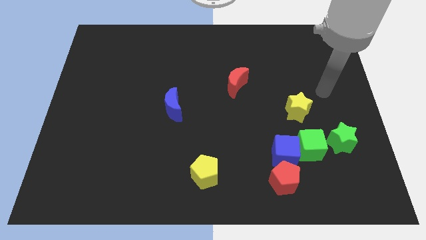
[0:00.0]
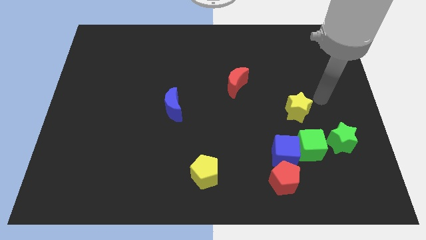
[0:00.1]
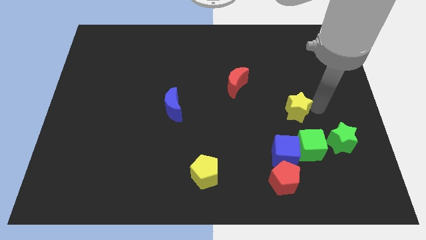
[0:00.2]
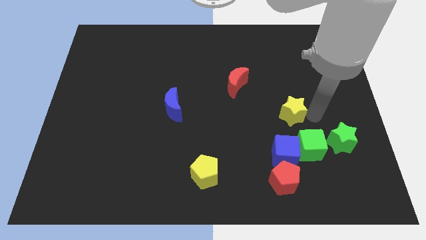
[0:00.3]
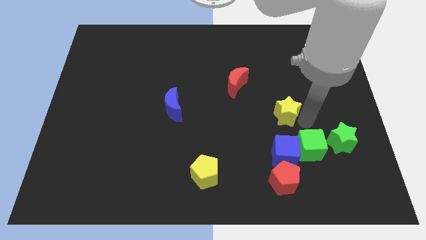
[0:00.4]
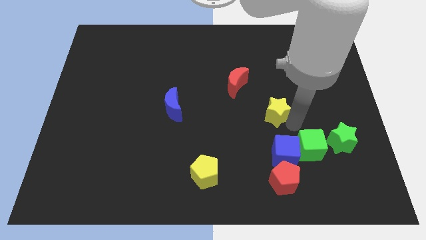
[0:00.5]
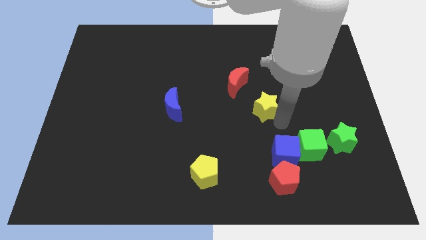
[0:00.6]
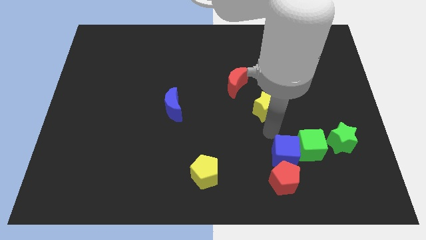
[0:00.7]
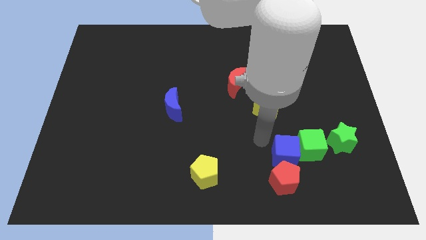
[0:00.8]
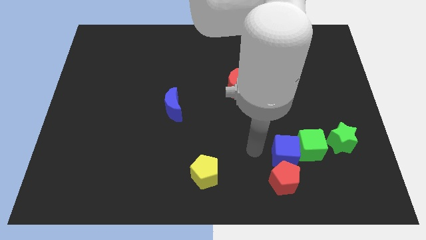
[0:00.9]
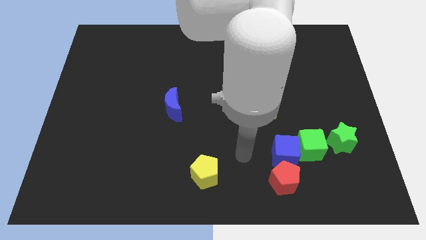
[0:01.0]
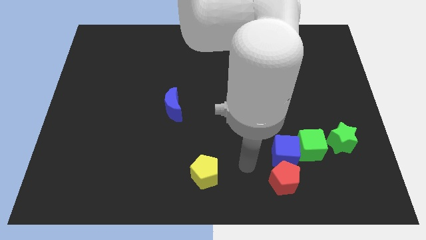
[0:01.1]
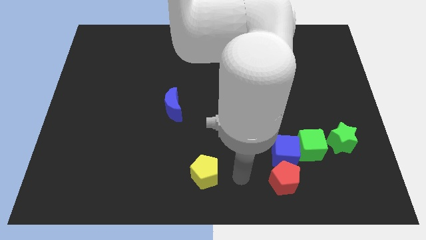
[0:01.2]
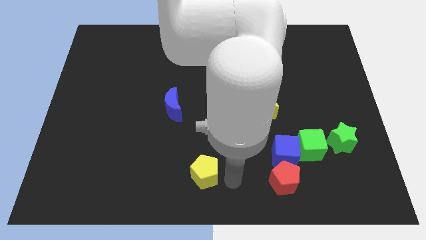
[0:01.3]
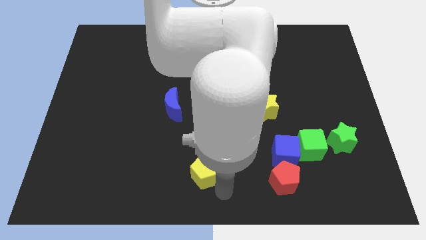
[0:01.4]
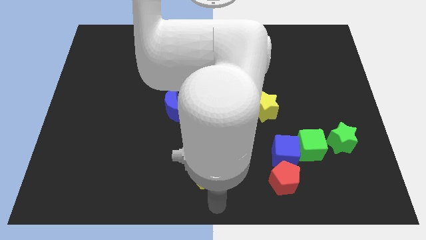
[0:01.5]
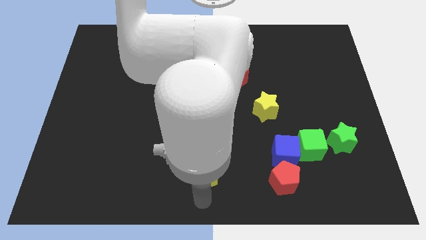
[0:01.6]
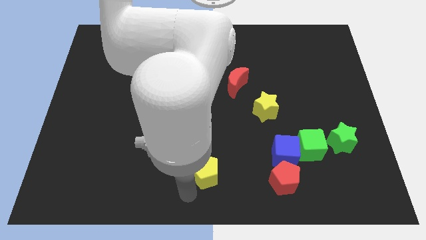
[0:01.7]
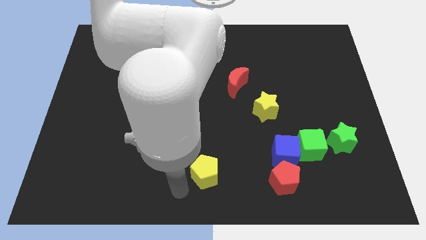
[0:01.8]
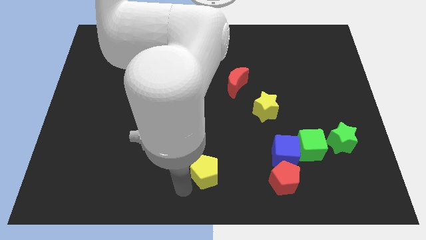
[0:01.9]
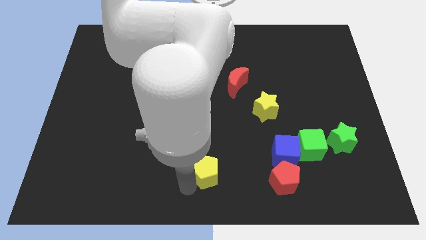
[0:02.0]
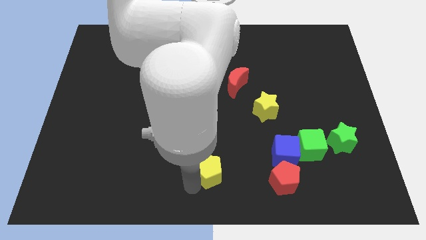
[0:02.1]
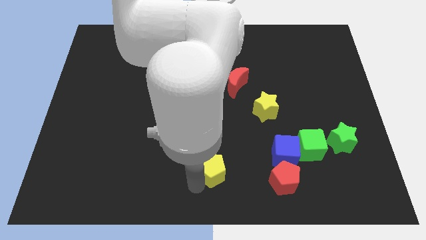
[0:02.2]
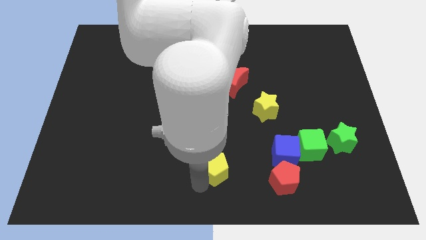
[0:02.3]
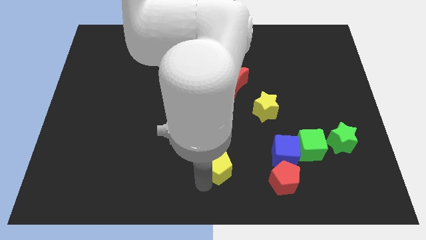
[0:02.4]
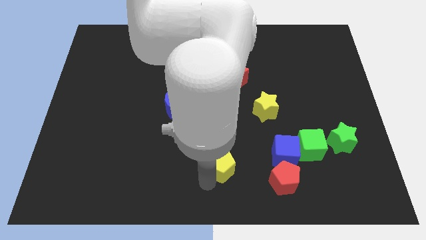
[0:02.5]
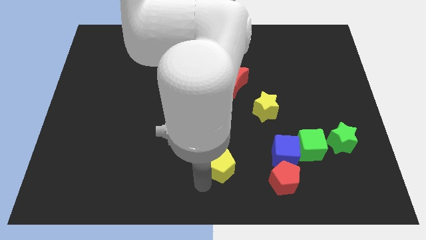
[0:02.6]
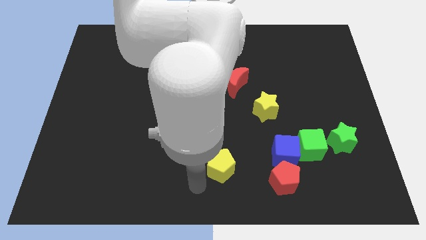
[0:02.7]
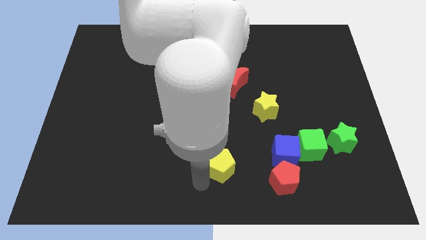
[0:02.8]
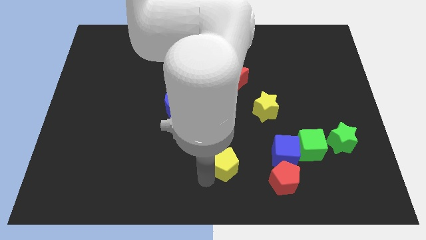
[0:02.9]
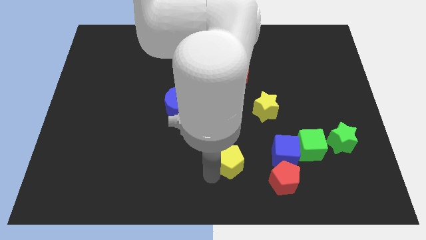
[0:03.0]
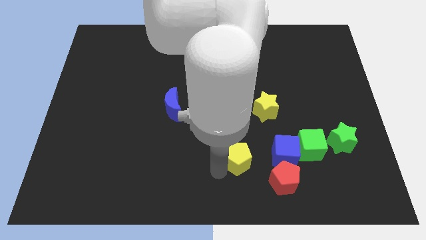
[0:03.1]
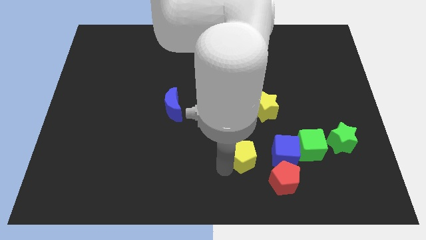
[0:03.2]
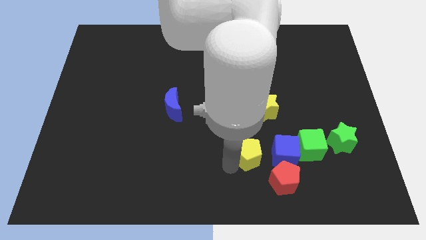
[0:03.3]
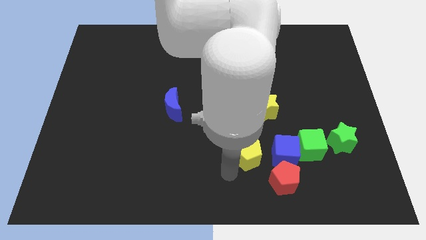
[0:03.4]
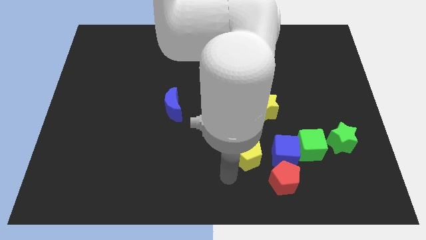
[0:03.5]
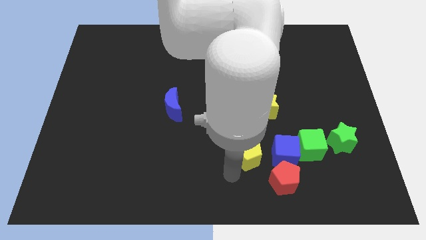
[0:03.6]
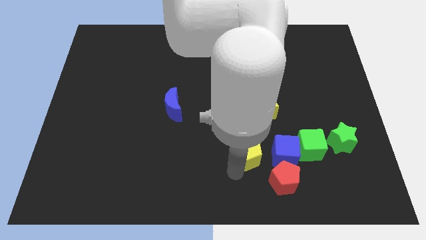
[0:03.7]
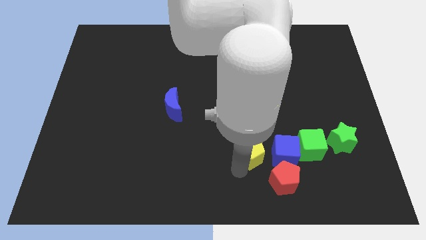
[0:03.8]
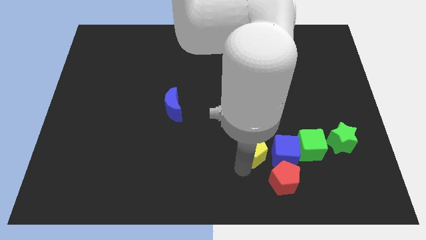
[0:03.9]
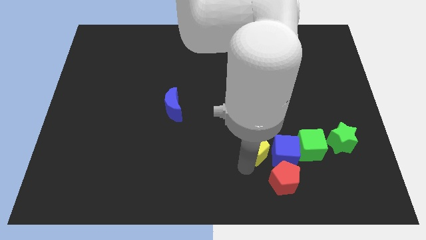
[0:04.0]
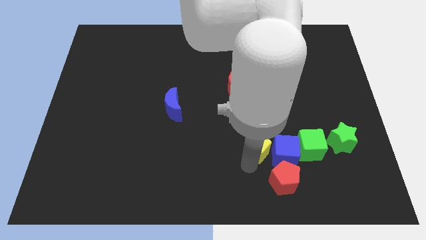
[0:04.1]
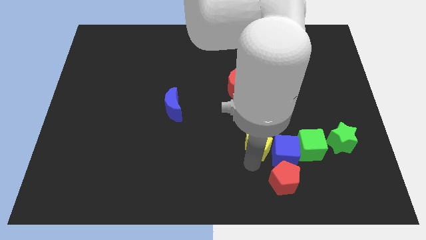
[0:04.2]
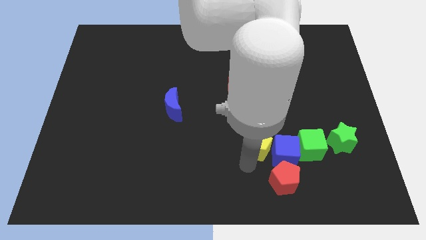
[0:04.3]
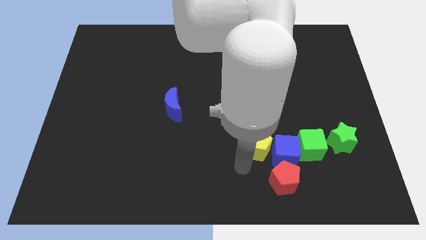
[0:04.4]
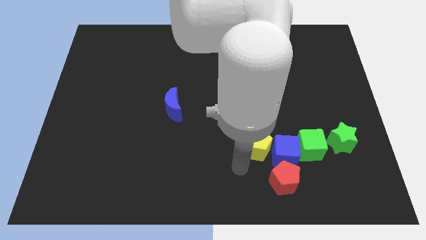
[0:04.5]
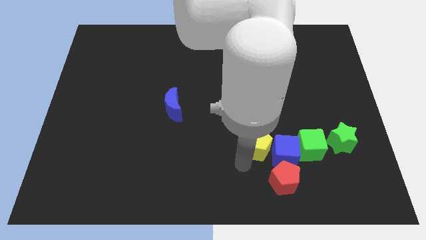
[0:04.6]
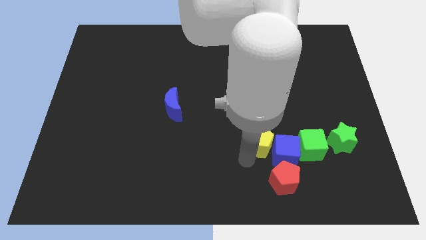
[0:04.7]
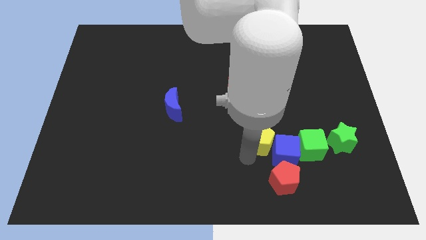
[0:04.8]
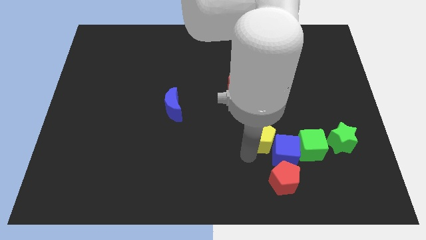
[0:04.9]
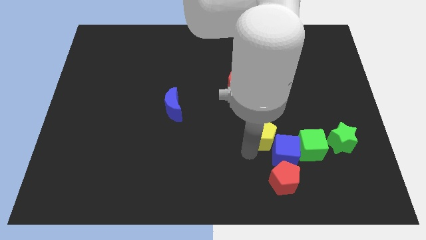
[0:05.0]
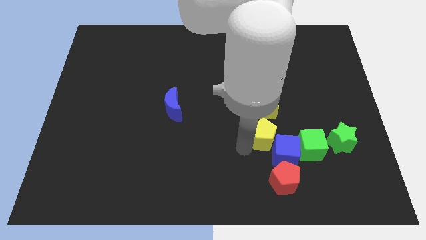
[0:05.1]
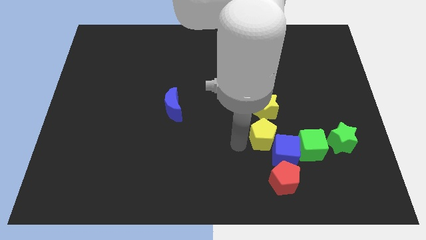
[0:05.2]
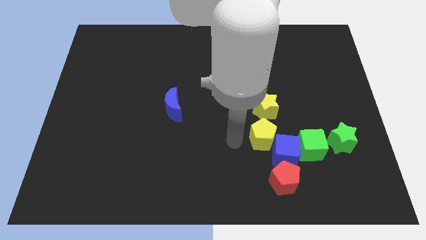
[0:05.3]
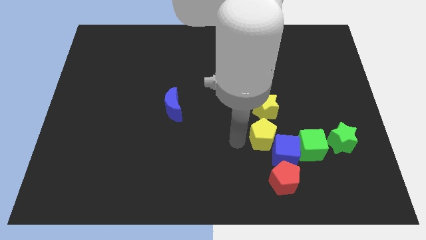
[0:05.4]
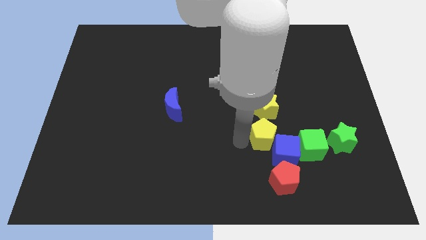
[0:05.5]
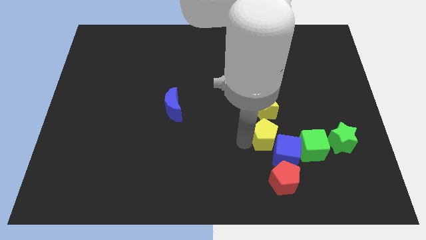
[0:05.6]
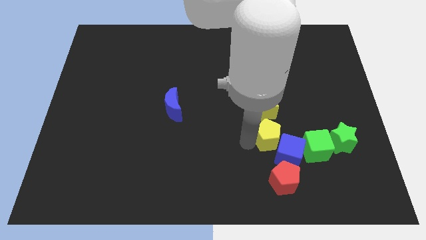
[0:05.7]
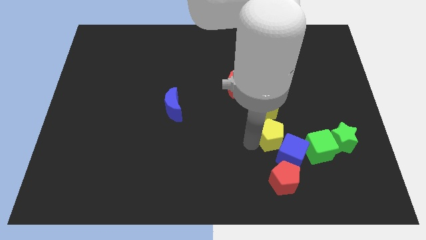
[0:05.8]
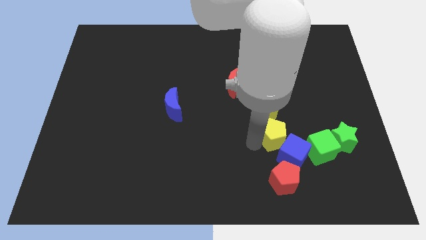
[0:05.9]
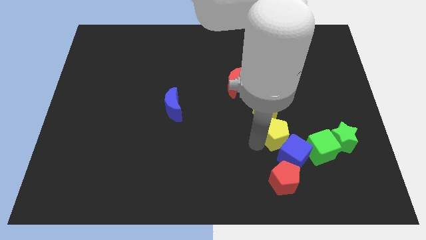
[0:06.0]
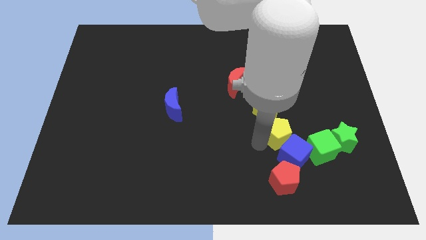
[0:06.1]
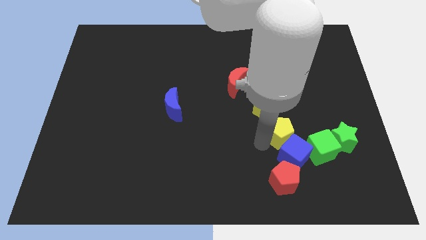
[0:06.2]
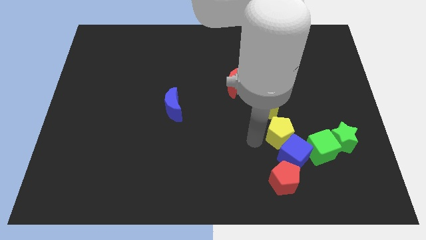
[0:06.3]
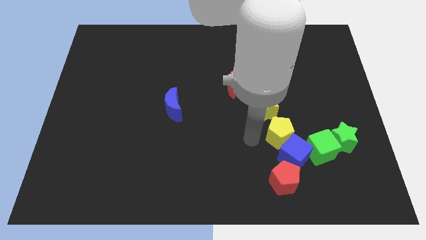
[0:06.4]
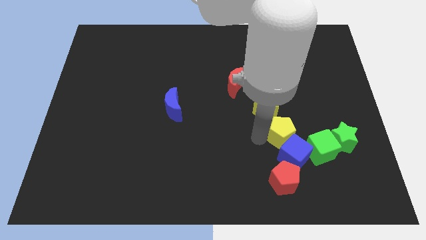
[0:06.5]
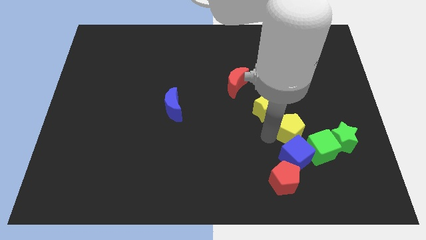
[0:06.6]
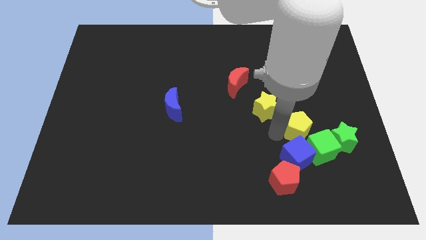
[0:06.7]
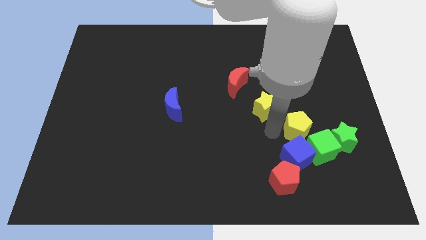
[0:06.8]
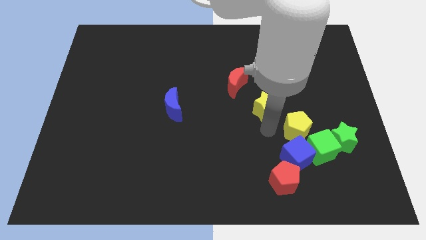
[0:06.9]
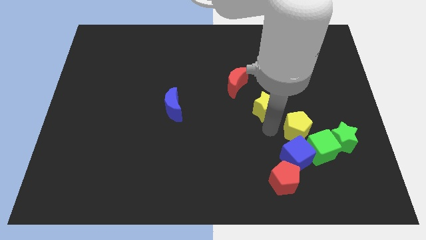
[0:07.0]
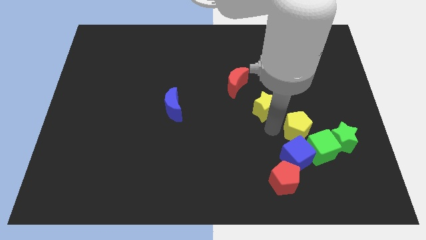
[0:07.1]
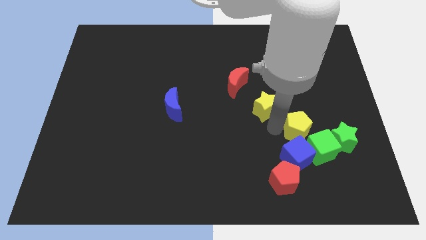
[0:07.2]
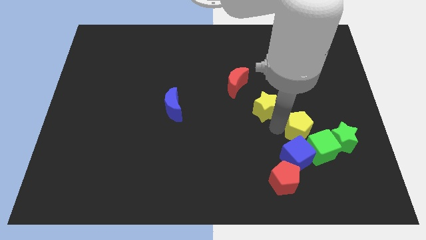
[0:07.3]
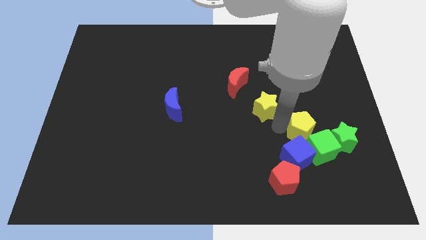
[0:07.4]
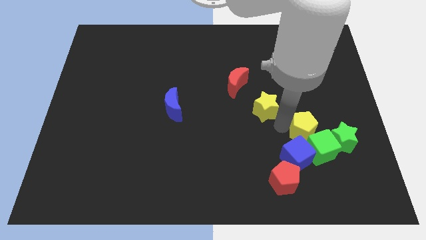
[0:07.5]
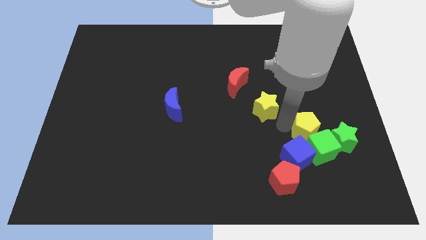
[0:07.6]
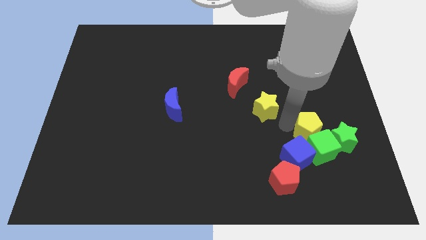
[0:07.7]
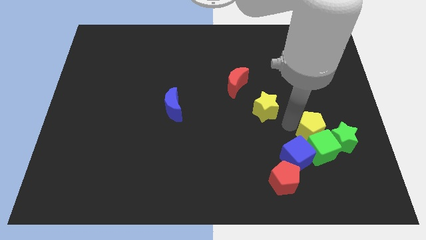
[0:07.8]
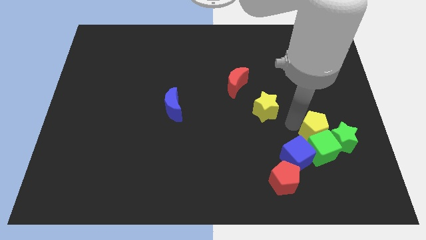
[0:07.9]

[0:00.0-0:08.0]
put the yellow pentagon next to the green star

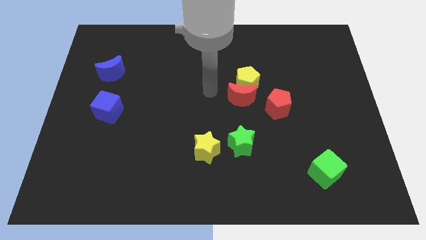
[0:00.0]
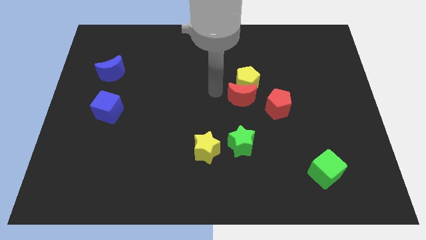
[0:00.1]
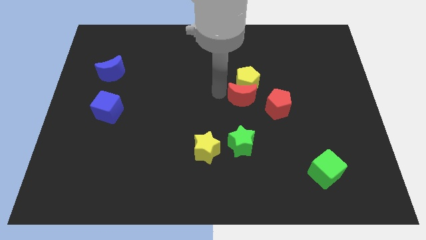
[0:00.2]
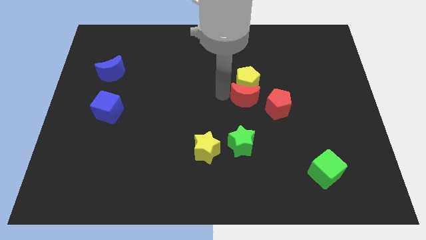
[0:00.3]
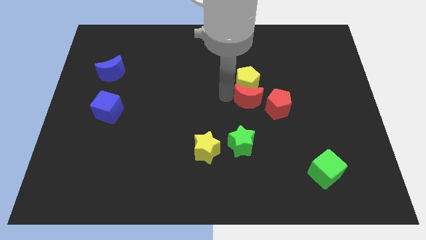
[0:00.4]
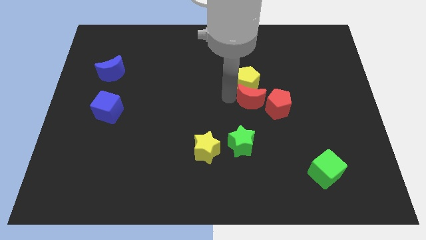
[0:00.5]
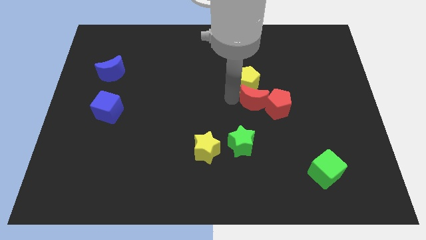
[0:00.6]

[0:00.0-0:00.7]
slide the red moon to the red pentagon
